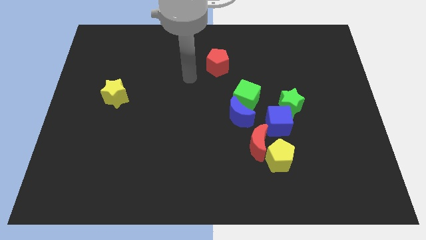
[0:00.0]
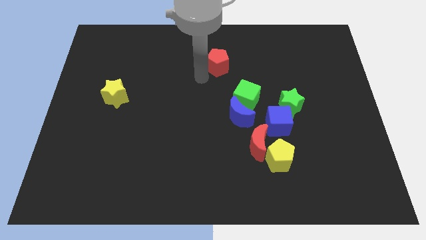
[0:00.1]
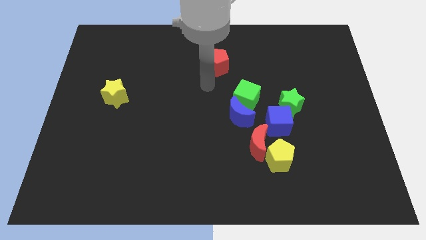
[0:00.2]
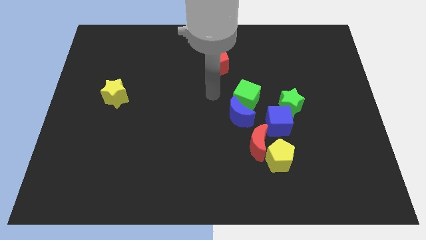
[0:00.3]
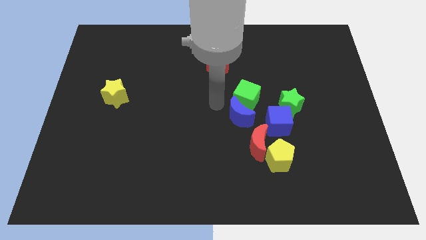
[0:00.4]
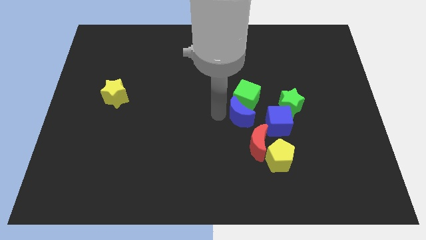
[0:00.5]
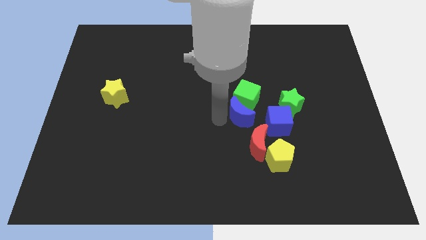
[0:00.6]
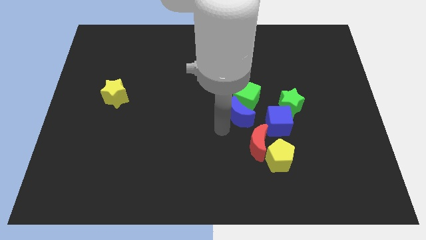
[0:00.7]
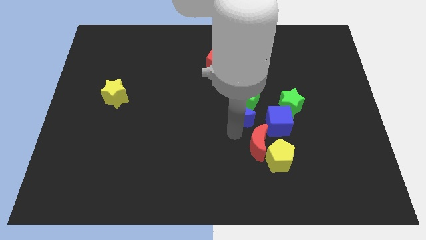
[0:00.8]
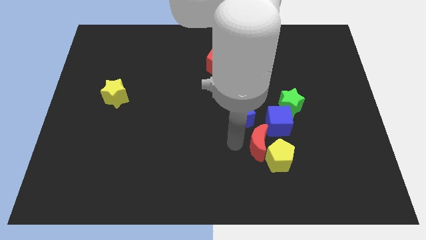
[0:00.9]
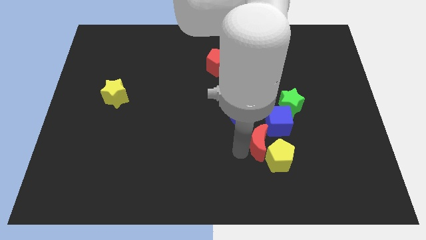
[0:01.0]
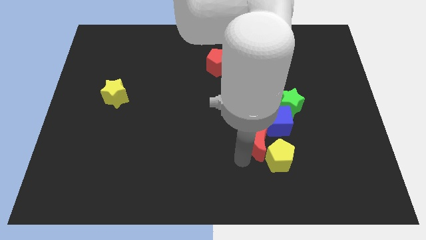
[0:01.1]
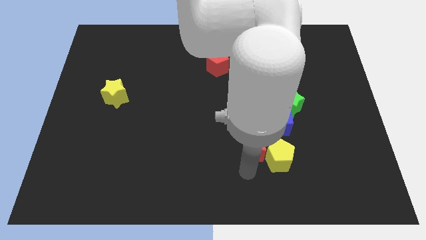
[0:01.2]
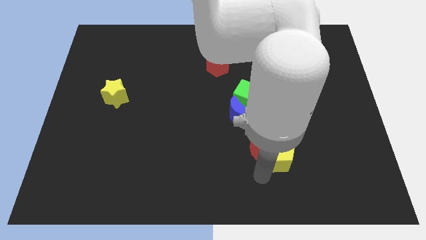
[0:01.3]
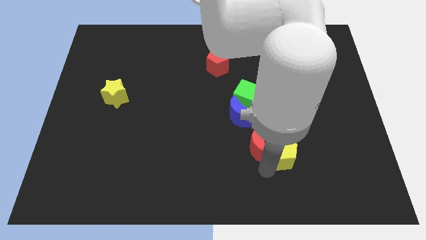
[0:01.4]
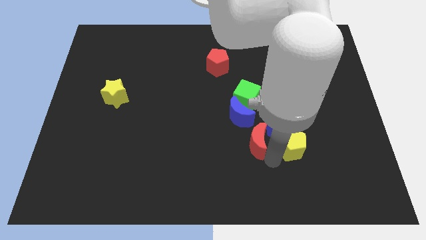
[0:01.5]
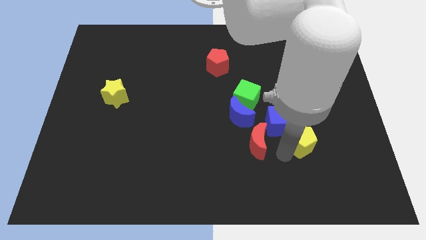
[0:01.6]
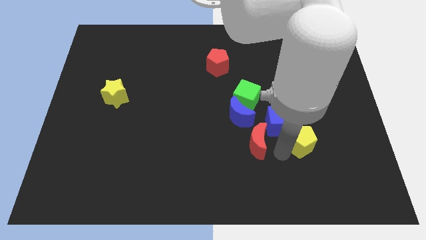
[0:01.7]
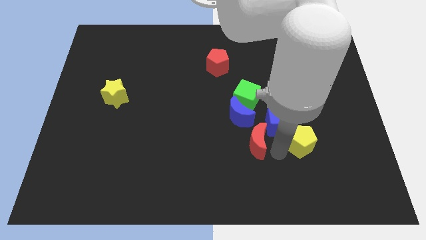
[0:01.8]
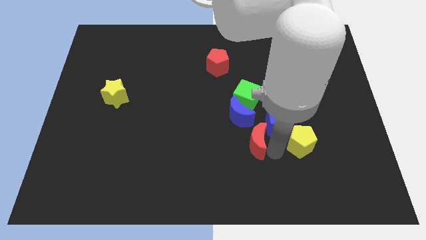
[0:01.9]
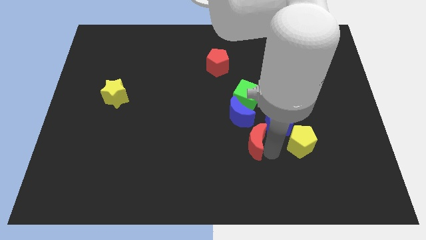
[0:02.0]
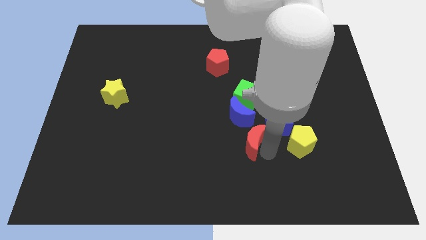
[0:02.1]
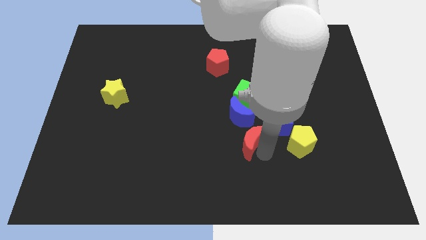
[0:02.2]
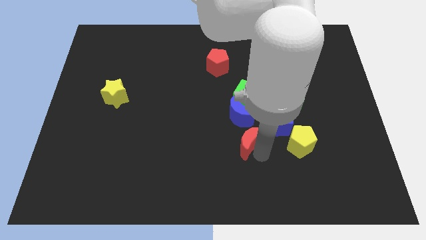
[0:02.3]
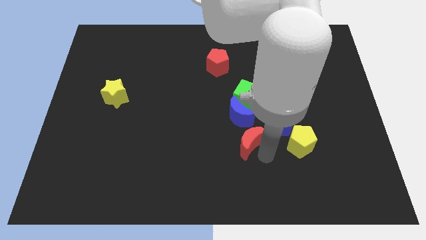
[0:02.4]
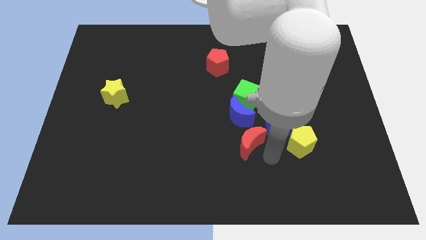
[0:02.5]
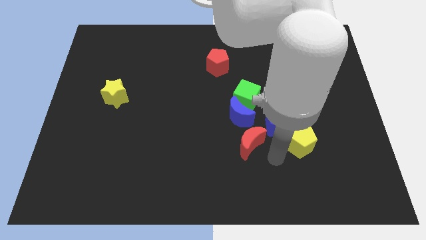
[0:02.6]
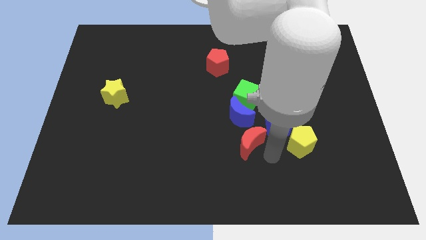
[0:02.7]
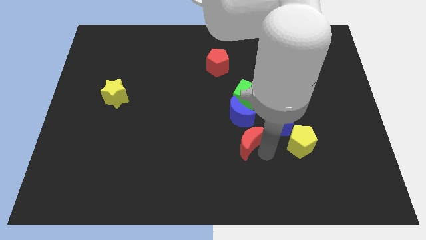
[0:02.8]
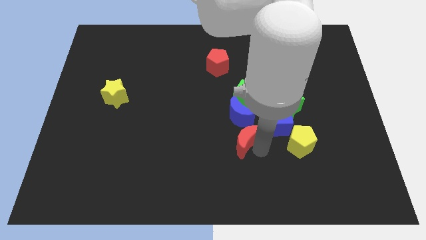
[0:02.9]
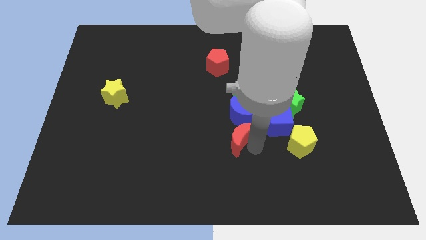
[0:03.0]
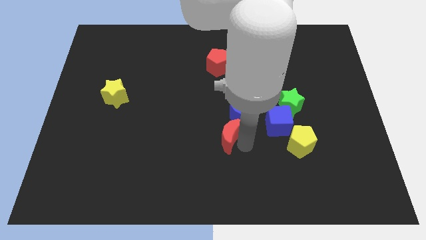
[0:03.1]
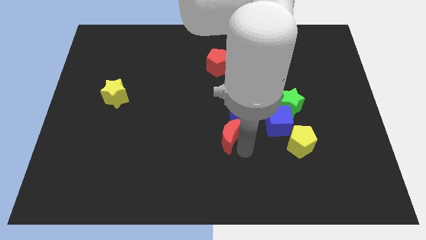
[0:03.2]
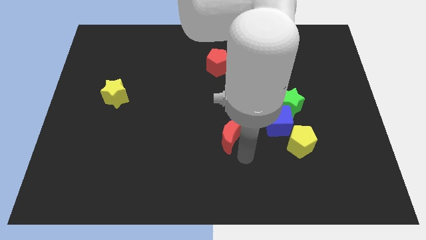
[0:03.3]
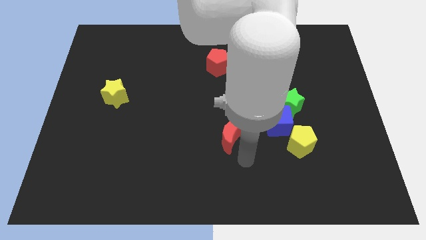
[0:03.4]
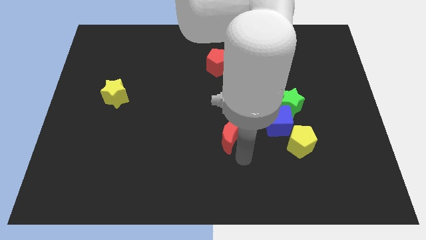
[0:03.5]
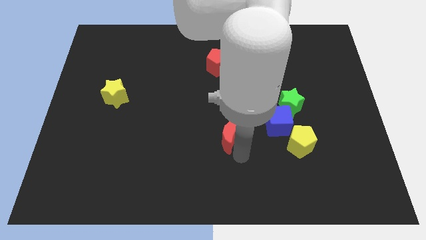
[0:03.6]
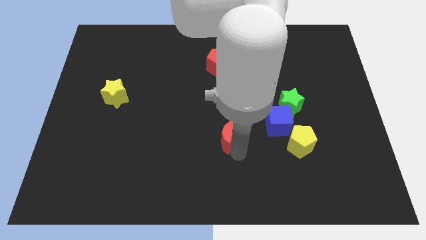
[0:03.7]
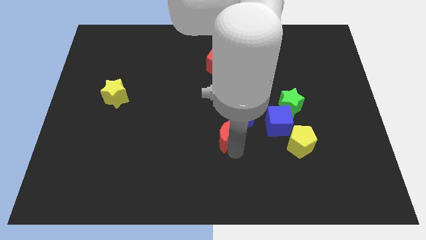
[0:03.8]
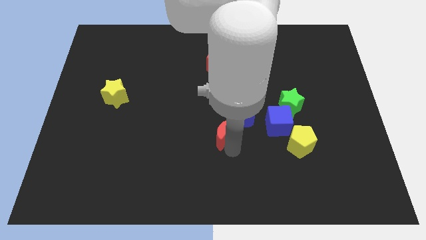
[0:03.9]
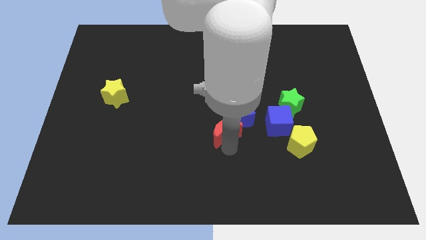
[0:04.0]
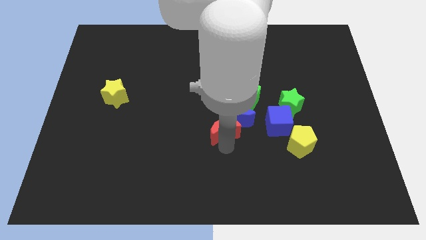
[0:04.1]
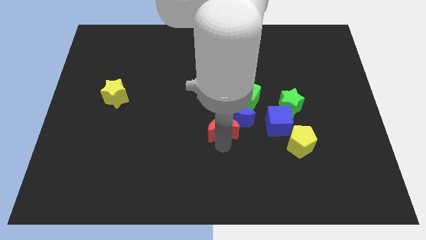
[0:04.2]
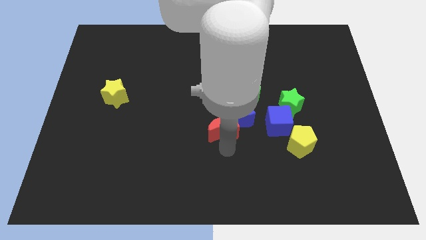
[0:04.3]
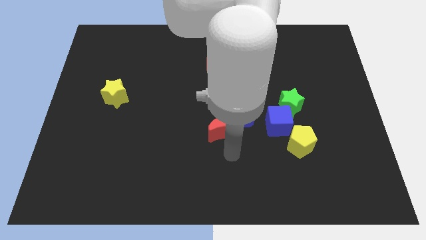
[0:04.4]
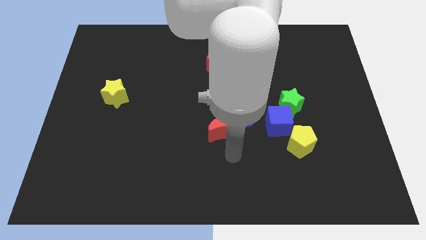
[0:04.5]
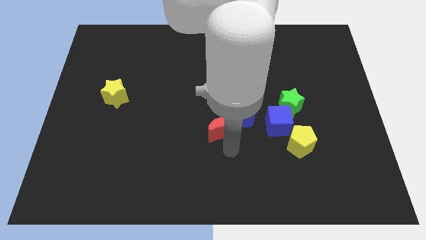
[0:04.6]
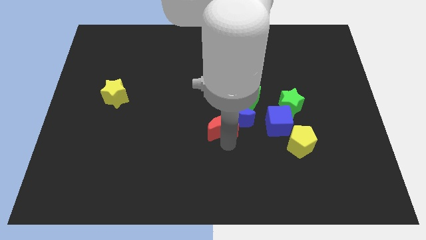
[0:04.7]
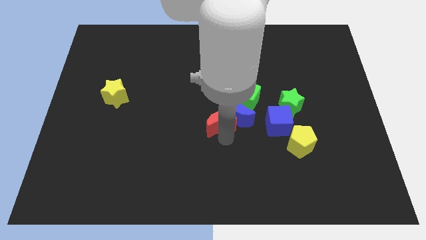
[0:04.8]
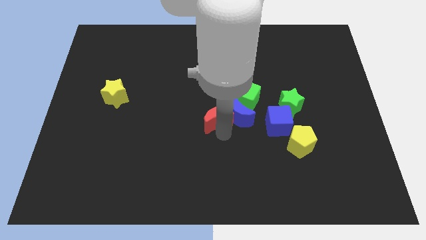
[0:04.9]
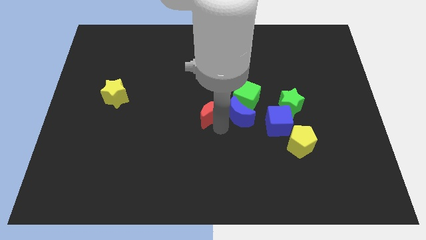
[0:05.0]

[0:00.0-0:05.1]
slide the red moon just left of the green cube

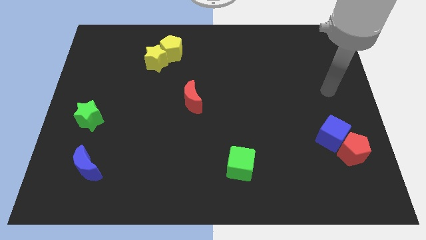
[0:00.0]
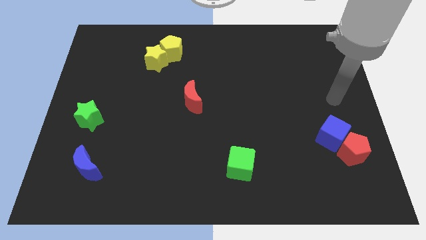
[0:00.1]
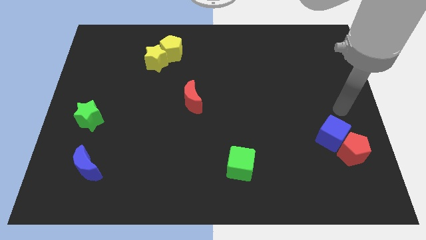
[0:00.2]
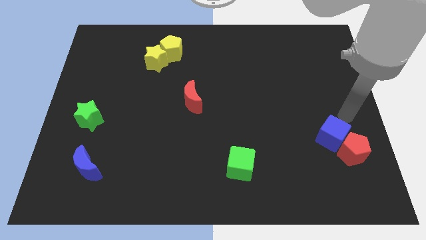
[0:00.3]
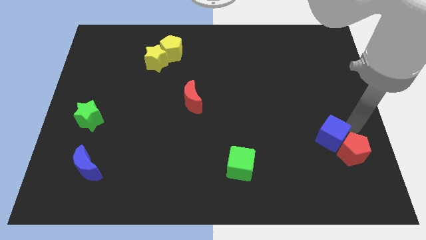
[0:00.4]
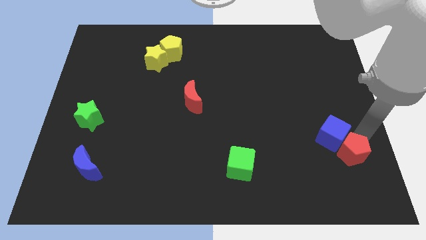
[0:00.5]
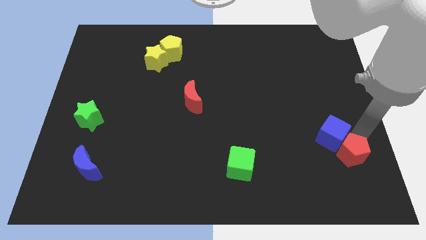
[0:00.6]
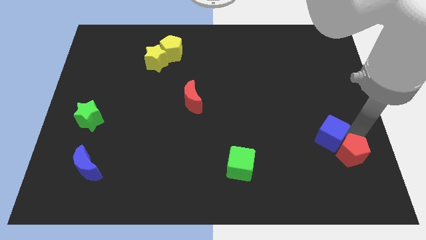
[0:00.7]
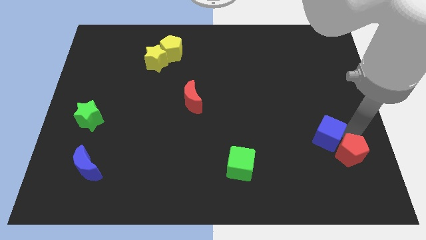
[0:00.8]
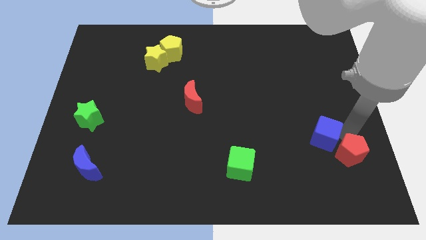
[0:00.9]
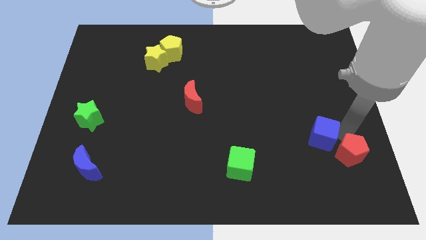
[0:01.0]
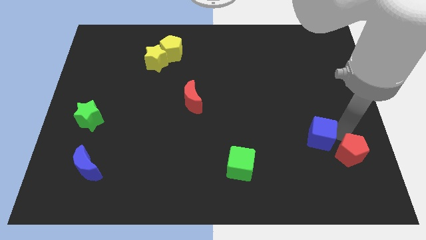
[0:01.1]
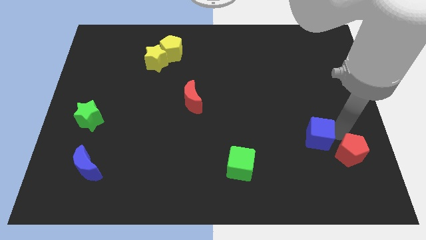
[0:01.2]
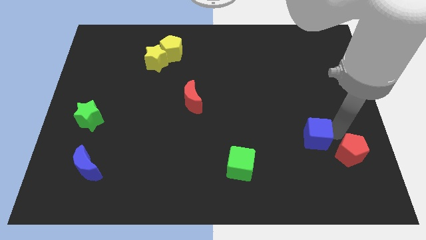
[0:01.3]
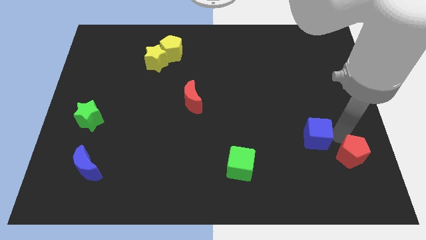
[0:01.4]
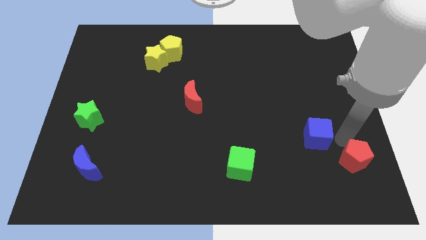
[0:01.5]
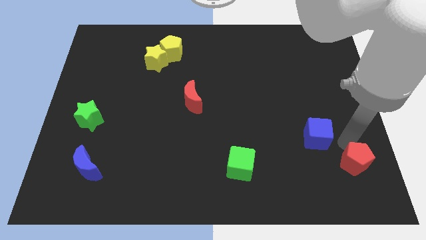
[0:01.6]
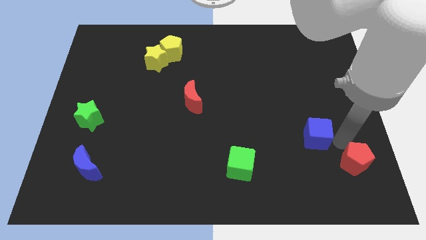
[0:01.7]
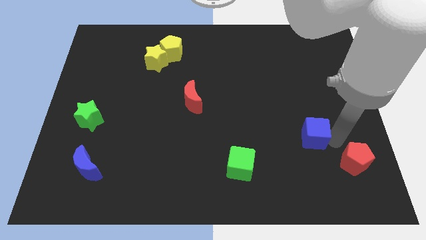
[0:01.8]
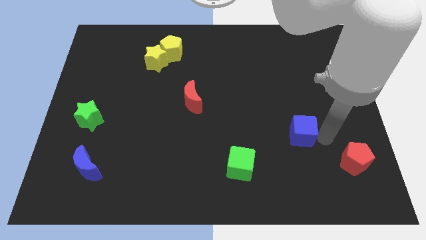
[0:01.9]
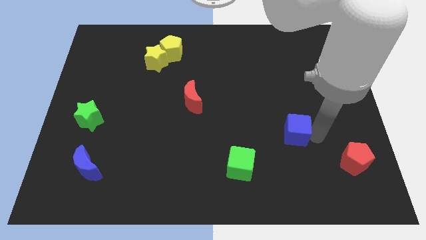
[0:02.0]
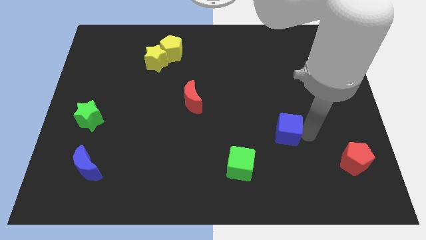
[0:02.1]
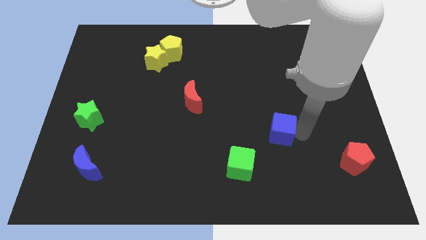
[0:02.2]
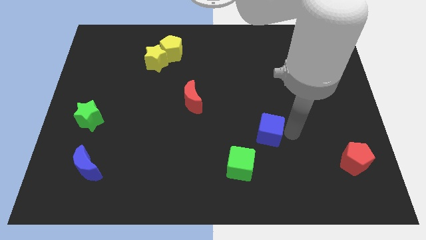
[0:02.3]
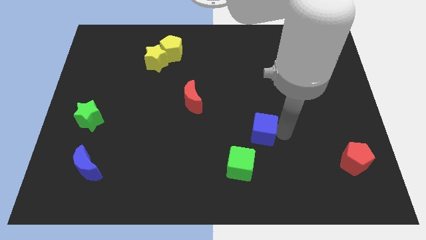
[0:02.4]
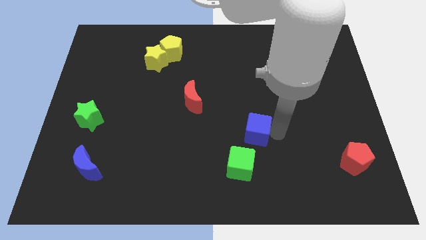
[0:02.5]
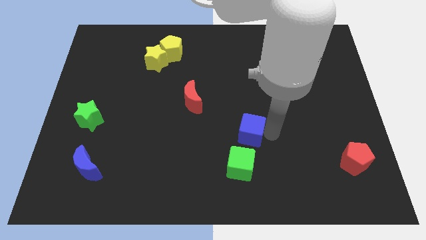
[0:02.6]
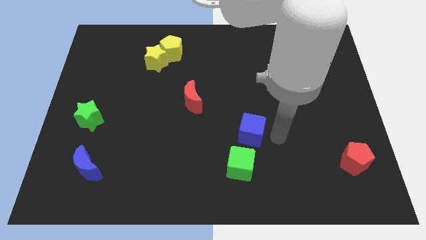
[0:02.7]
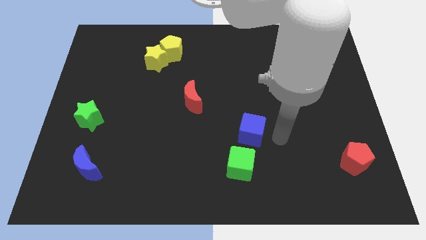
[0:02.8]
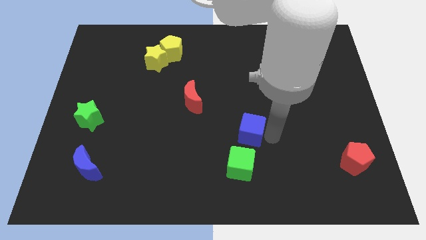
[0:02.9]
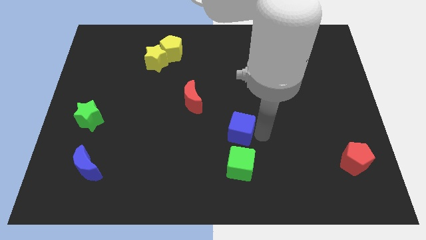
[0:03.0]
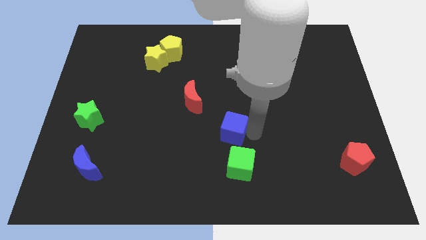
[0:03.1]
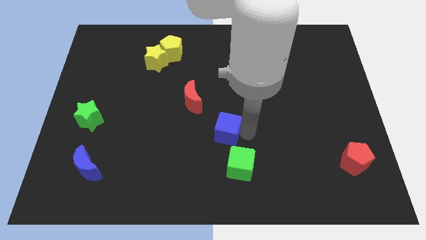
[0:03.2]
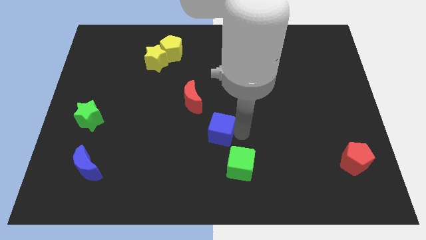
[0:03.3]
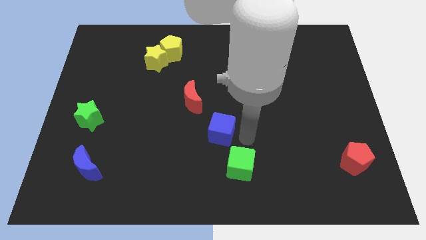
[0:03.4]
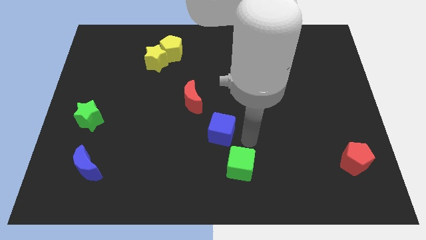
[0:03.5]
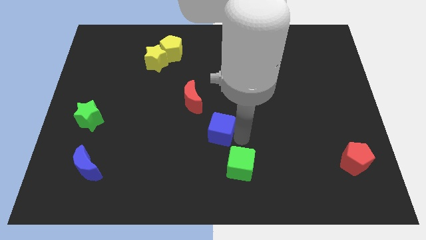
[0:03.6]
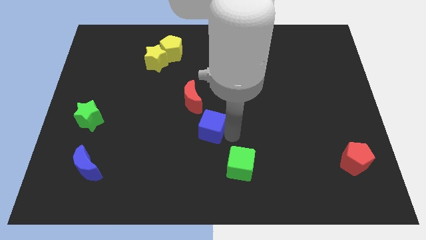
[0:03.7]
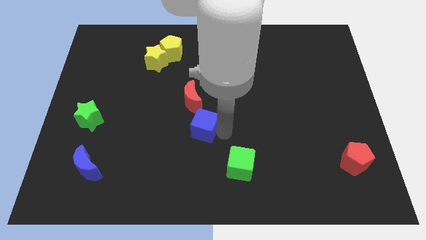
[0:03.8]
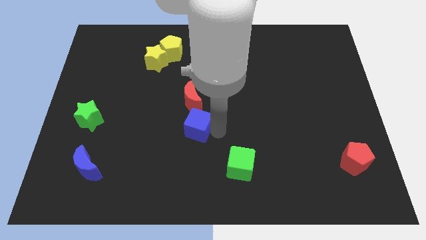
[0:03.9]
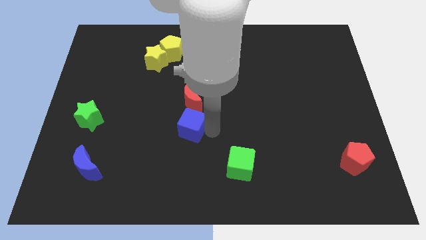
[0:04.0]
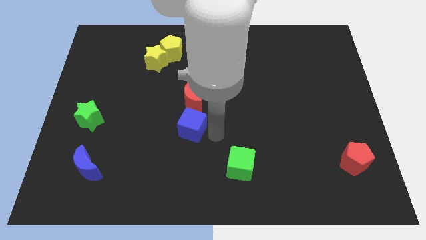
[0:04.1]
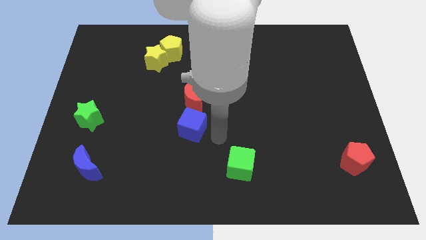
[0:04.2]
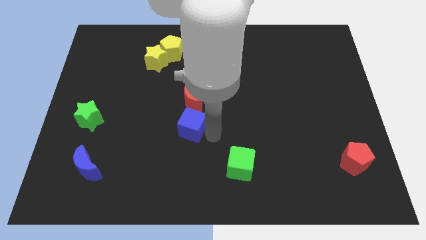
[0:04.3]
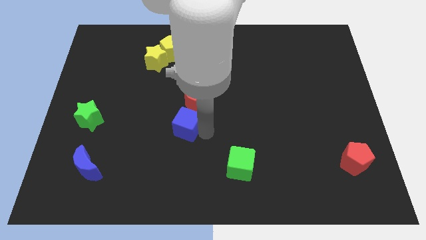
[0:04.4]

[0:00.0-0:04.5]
slide the blue cube to the bottom left of the red moon
